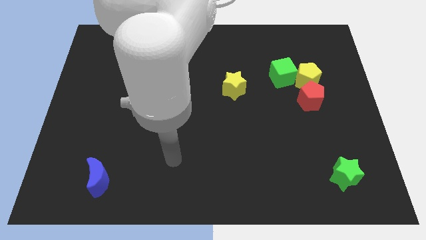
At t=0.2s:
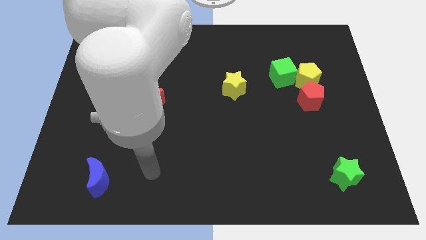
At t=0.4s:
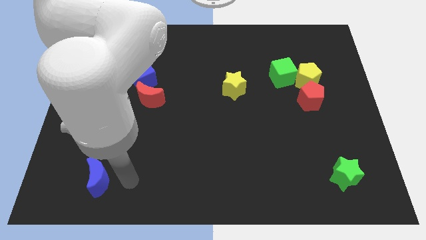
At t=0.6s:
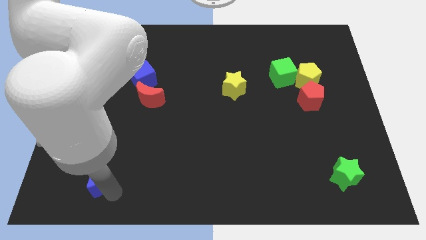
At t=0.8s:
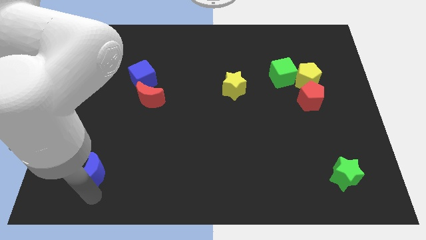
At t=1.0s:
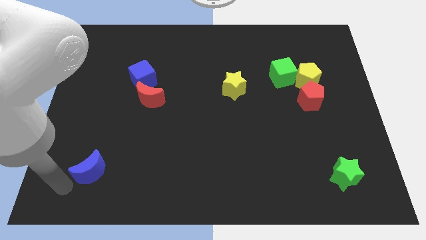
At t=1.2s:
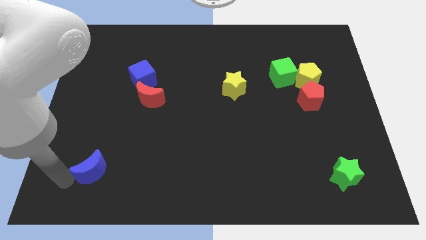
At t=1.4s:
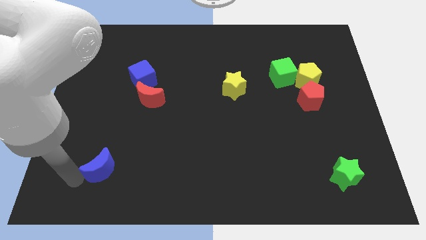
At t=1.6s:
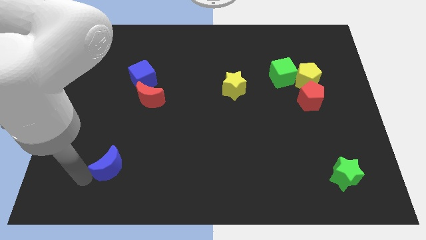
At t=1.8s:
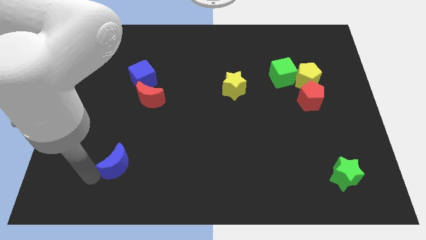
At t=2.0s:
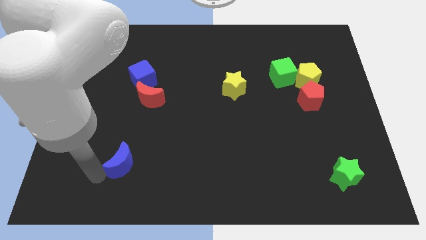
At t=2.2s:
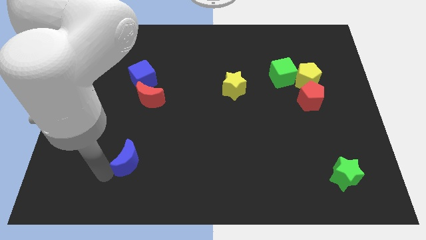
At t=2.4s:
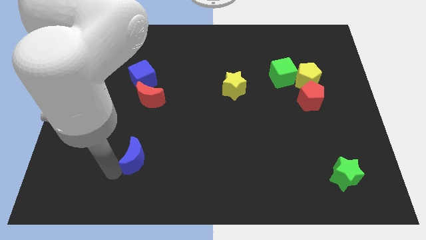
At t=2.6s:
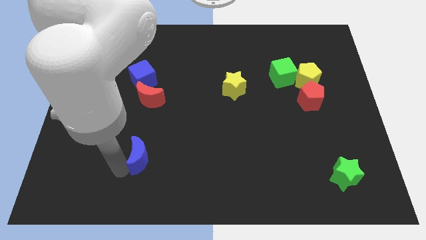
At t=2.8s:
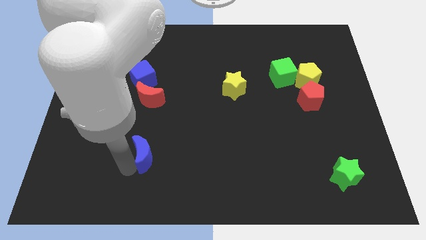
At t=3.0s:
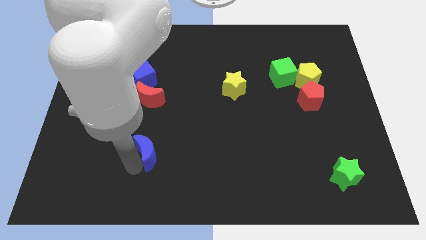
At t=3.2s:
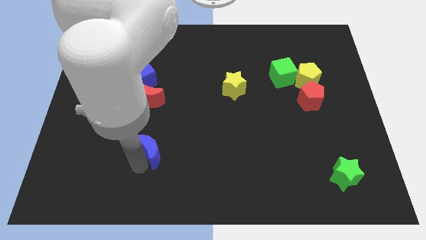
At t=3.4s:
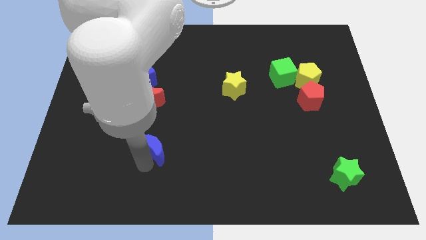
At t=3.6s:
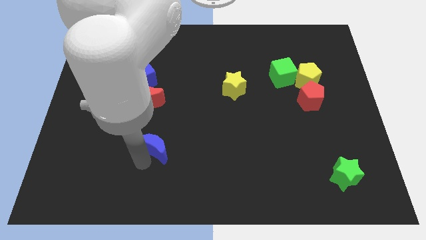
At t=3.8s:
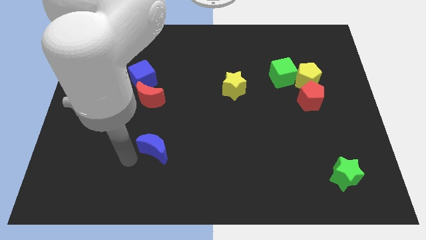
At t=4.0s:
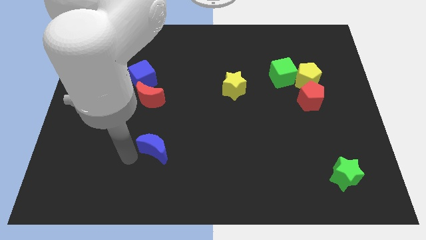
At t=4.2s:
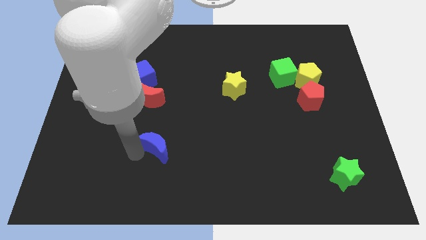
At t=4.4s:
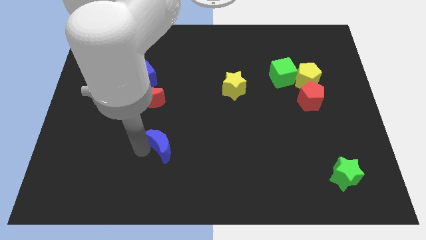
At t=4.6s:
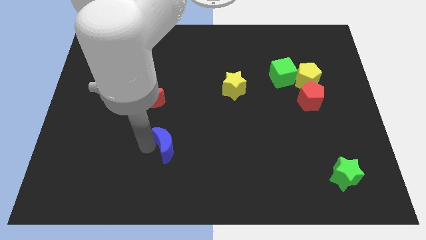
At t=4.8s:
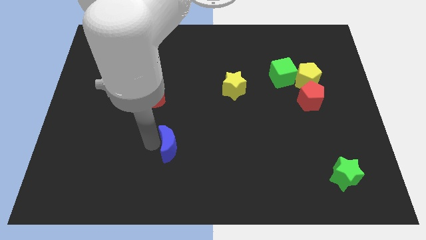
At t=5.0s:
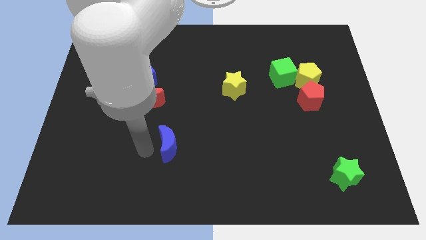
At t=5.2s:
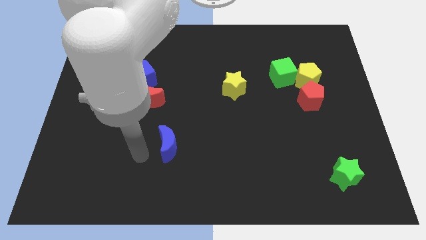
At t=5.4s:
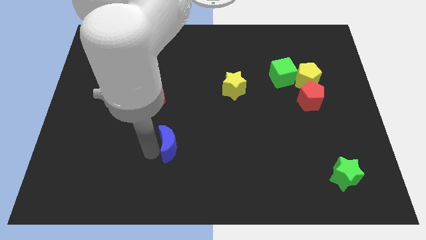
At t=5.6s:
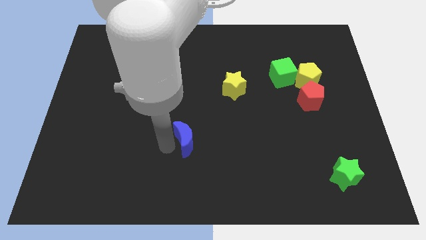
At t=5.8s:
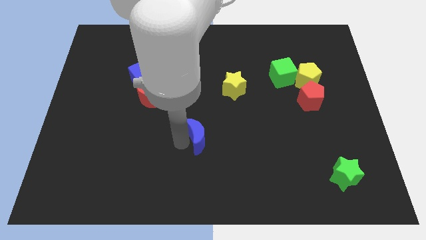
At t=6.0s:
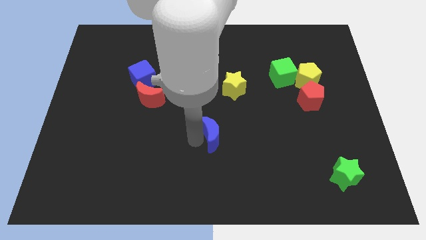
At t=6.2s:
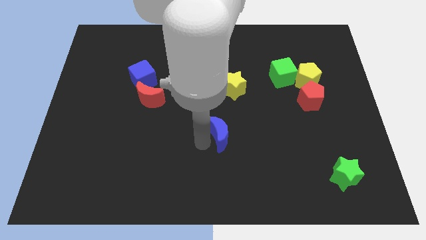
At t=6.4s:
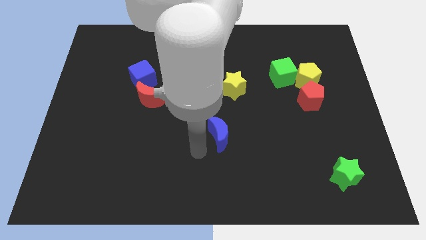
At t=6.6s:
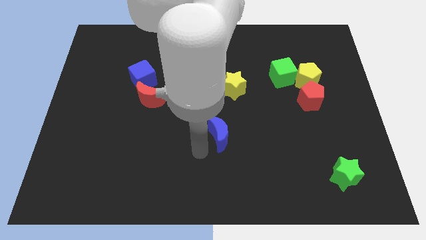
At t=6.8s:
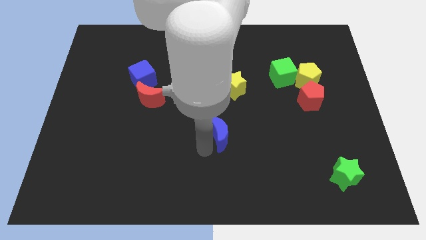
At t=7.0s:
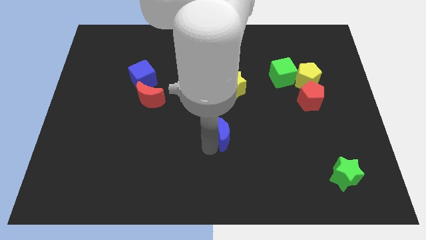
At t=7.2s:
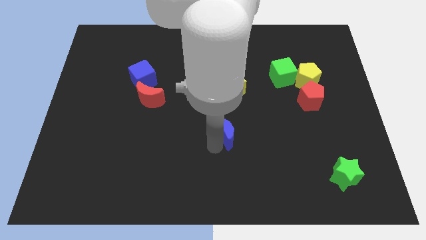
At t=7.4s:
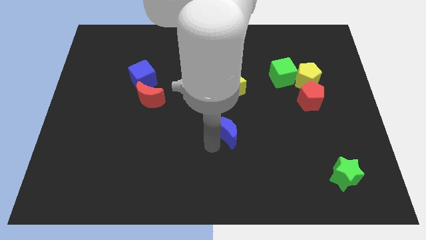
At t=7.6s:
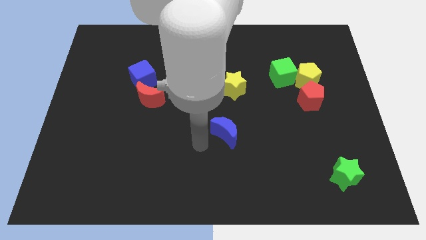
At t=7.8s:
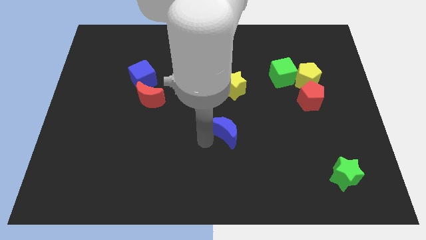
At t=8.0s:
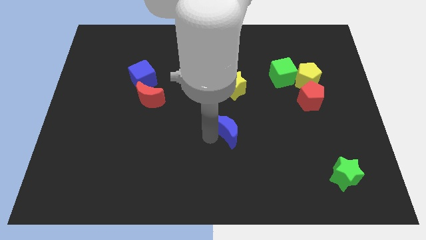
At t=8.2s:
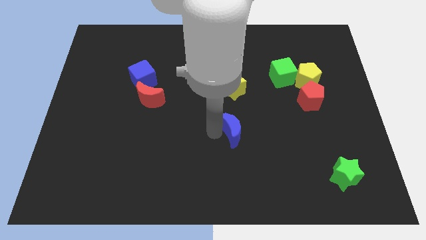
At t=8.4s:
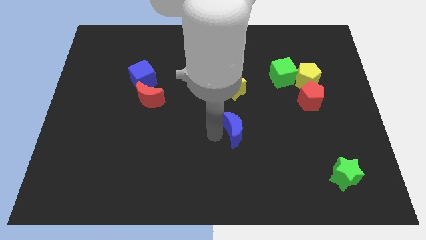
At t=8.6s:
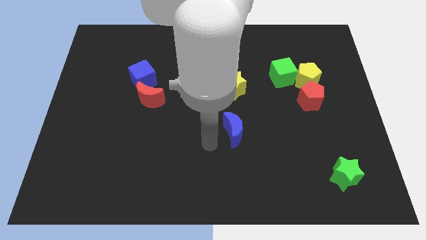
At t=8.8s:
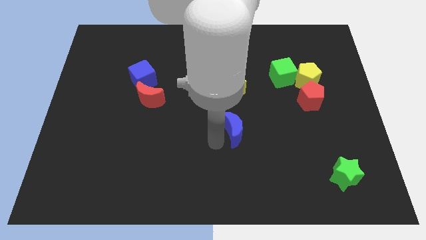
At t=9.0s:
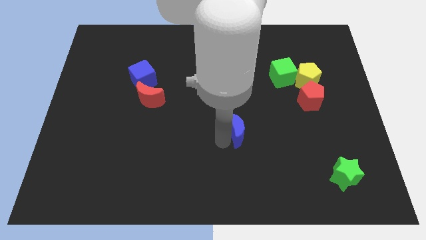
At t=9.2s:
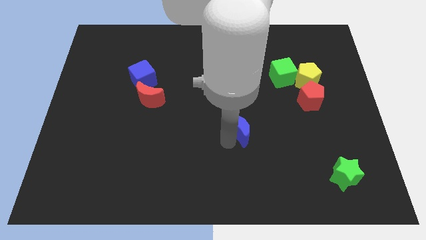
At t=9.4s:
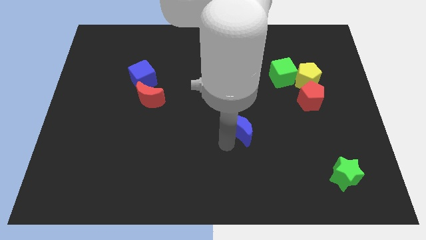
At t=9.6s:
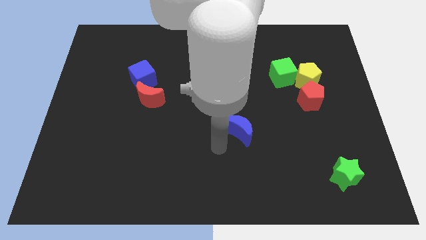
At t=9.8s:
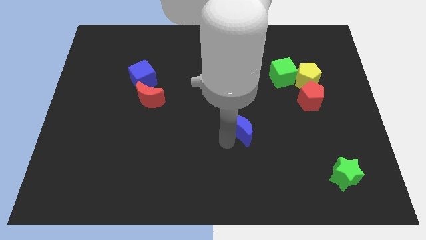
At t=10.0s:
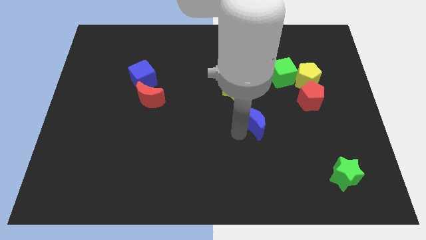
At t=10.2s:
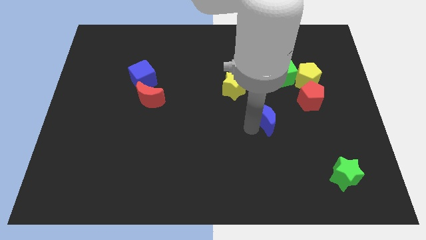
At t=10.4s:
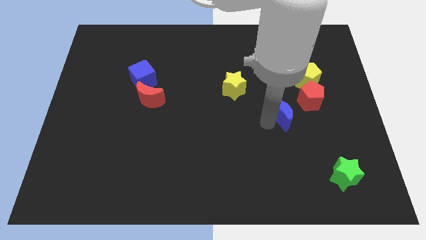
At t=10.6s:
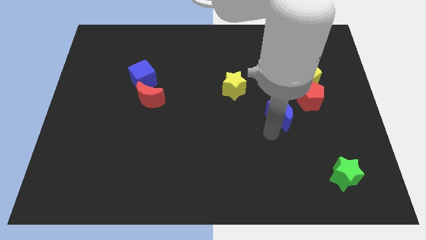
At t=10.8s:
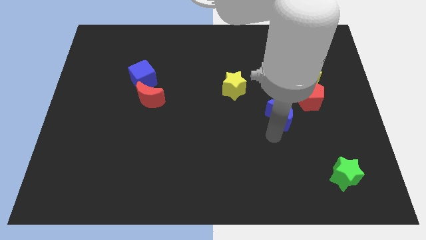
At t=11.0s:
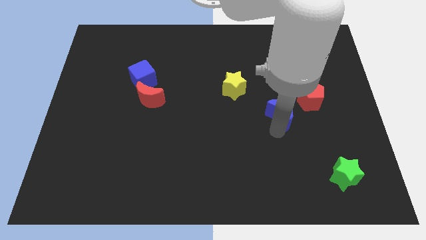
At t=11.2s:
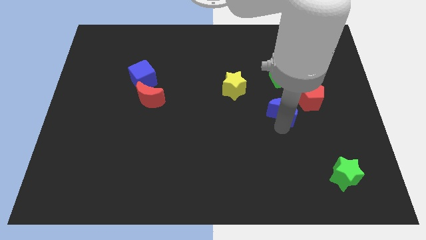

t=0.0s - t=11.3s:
move the blue moon to the bottom left side of the yellow pentagon

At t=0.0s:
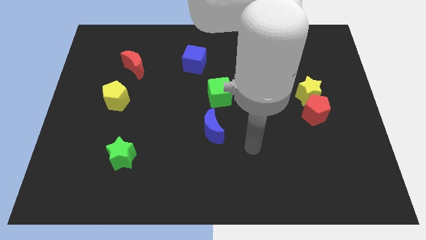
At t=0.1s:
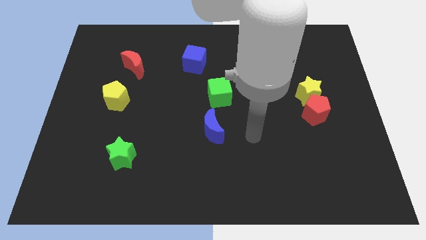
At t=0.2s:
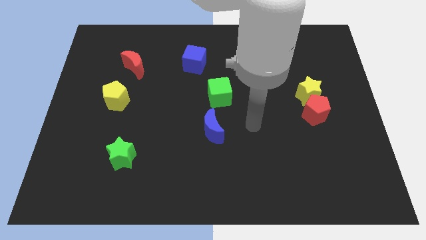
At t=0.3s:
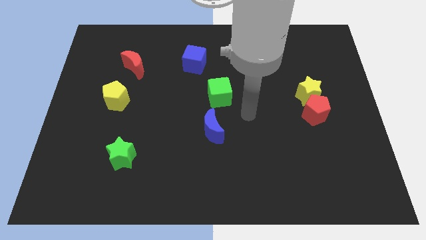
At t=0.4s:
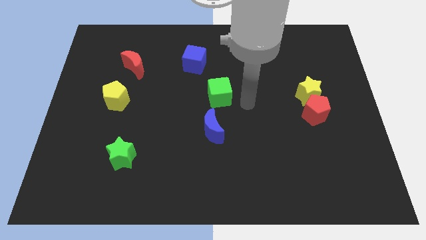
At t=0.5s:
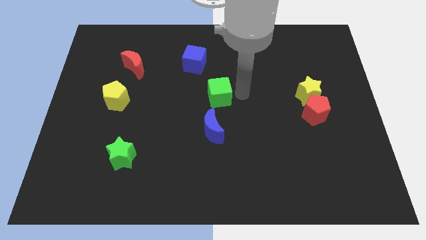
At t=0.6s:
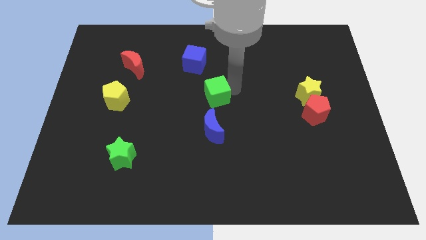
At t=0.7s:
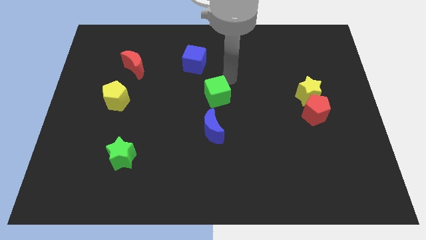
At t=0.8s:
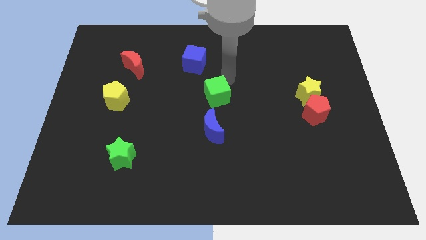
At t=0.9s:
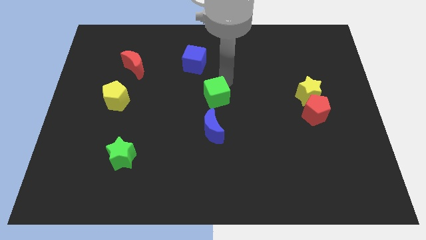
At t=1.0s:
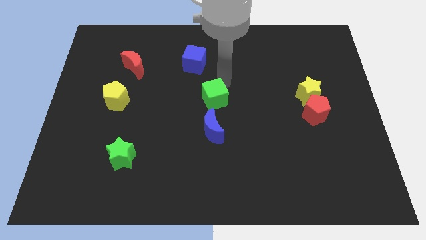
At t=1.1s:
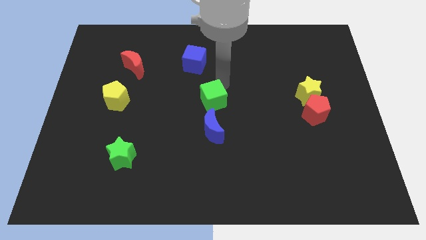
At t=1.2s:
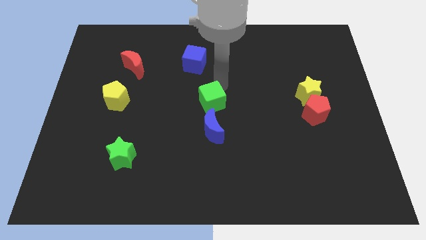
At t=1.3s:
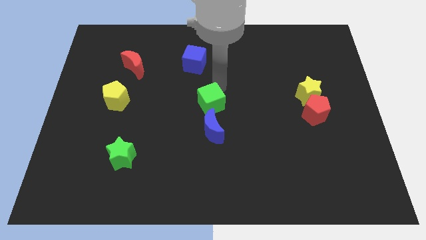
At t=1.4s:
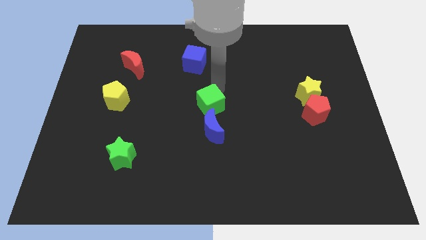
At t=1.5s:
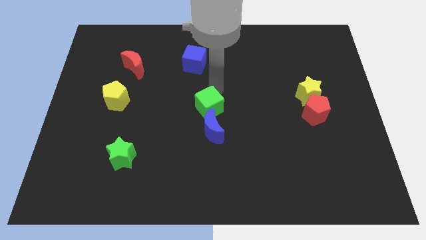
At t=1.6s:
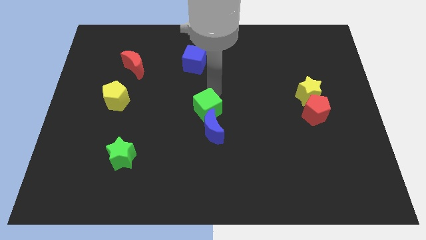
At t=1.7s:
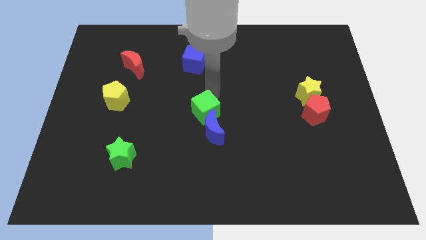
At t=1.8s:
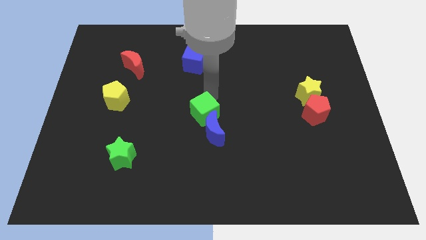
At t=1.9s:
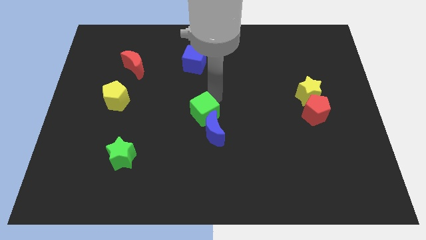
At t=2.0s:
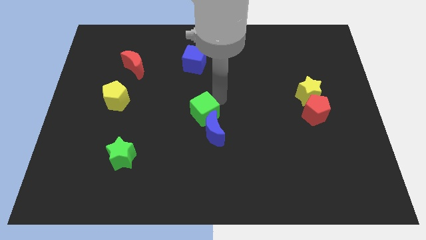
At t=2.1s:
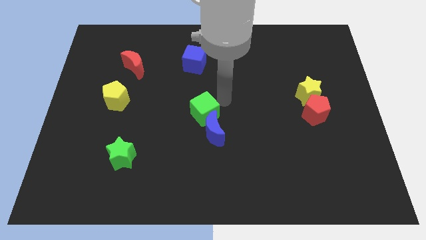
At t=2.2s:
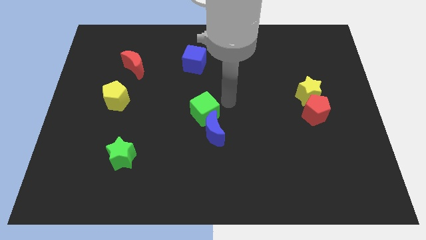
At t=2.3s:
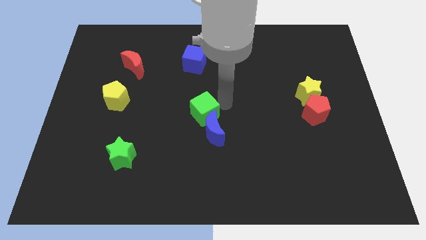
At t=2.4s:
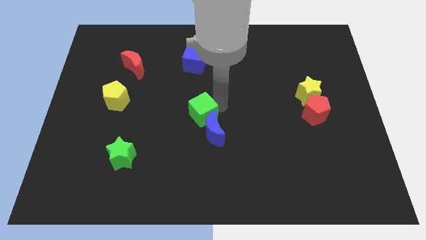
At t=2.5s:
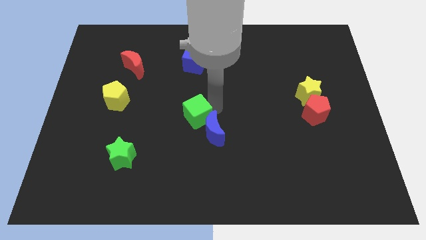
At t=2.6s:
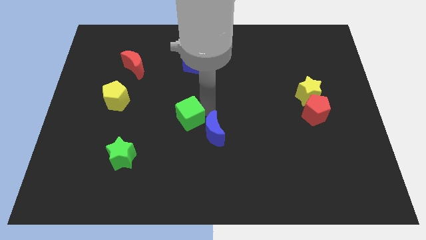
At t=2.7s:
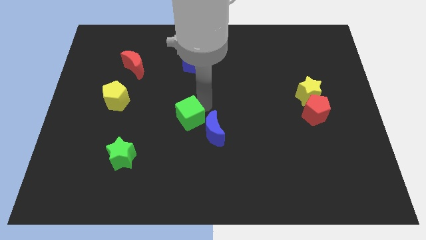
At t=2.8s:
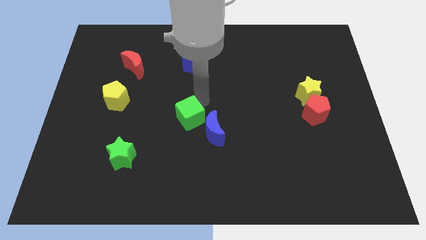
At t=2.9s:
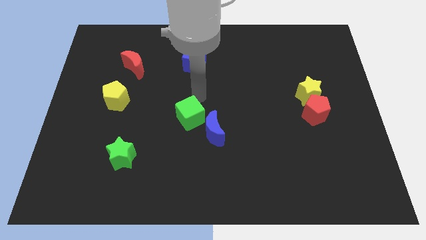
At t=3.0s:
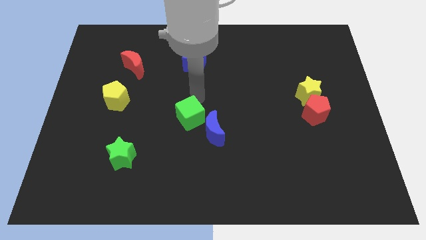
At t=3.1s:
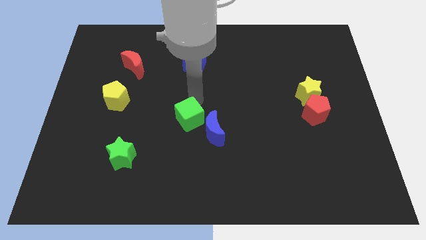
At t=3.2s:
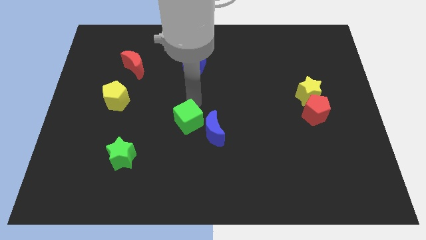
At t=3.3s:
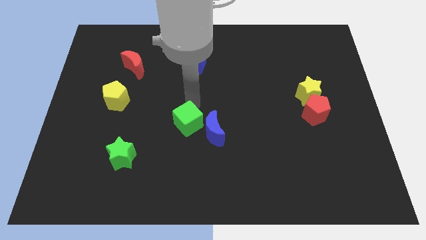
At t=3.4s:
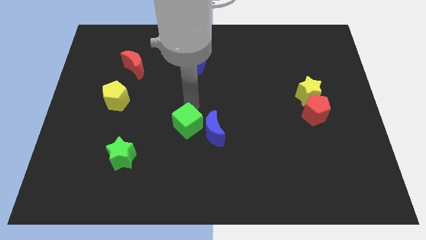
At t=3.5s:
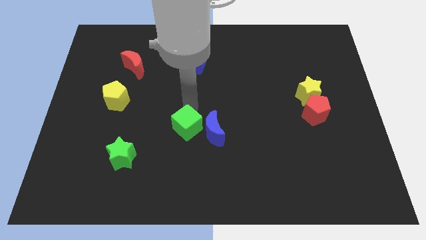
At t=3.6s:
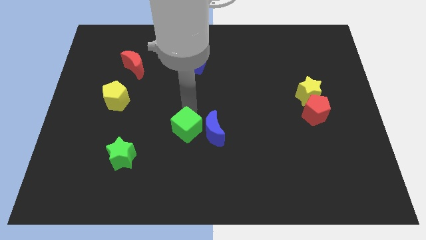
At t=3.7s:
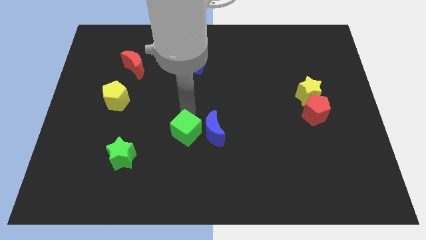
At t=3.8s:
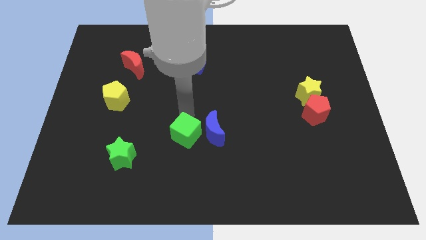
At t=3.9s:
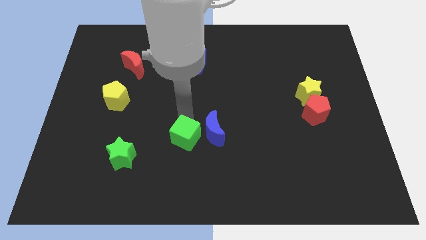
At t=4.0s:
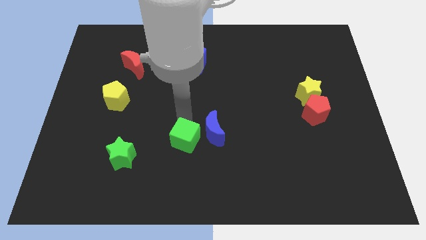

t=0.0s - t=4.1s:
slide the green cube to the right of the green star
